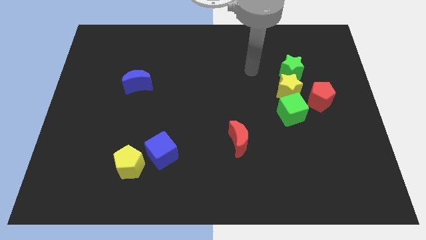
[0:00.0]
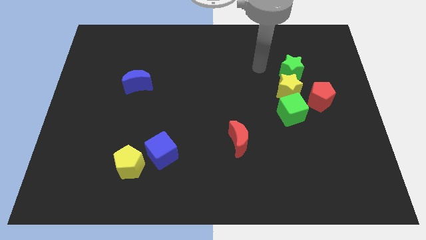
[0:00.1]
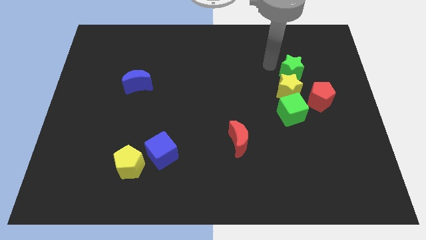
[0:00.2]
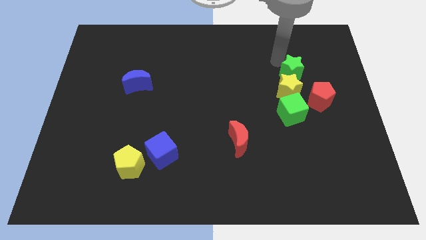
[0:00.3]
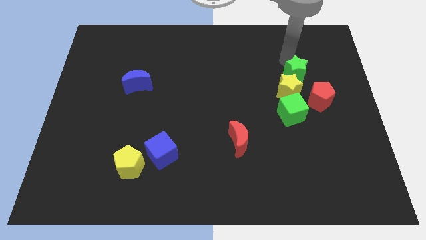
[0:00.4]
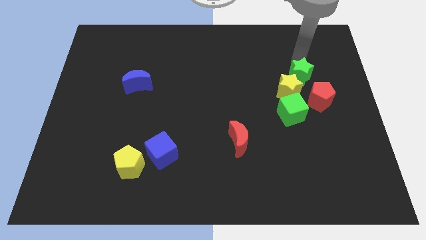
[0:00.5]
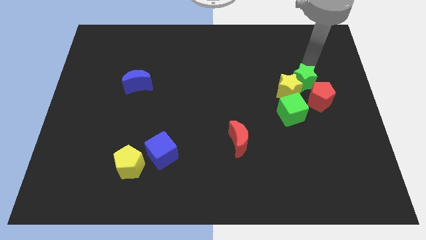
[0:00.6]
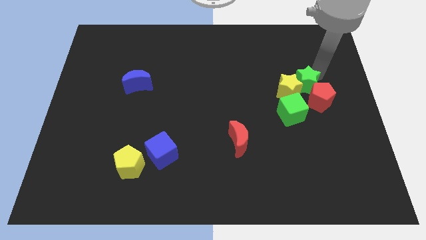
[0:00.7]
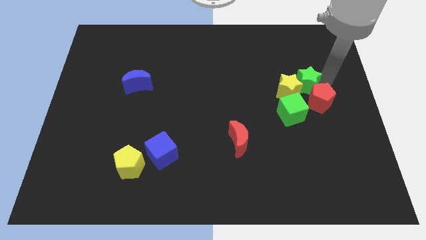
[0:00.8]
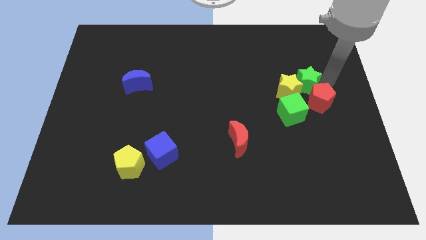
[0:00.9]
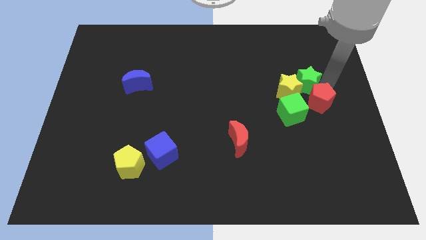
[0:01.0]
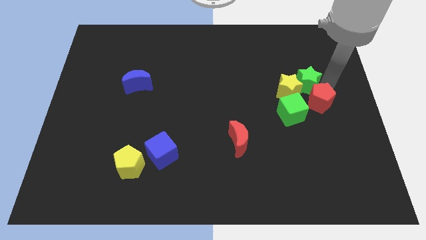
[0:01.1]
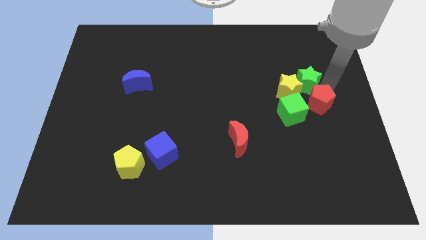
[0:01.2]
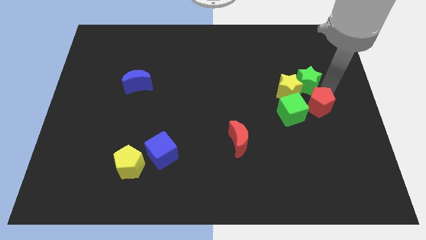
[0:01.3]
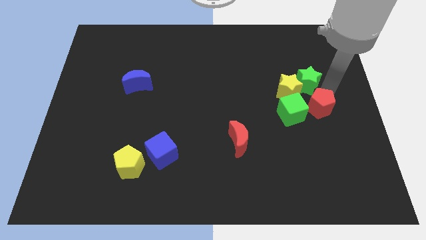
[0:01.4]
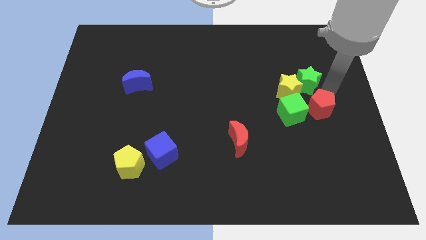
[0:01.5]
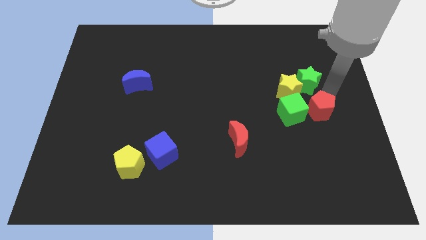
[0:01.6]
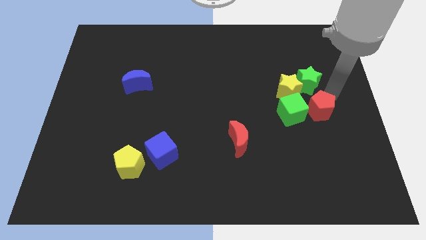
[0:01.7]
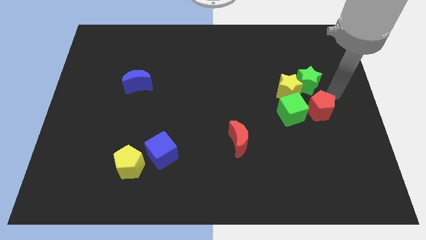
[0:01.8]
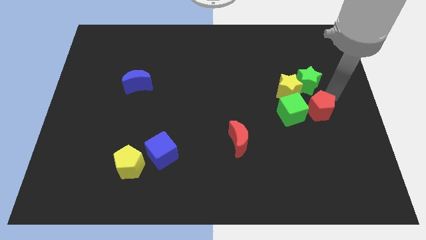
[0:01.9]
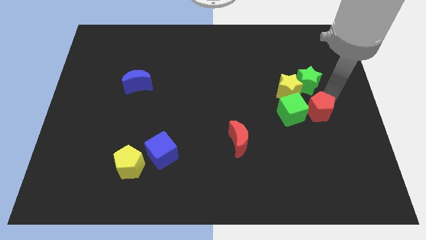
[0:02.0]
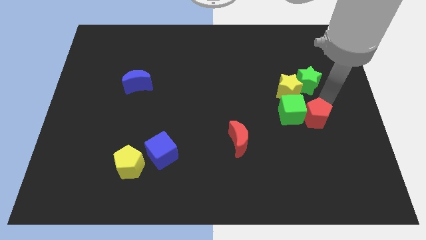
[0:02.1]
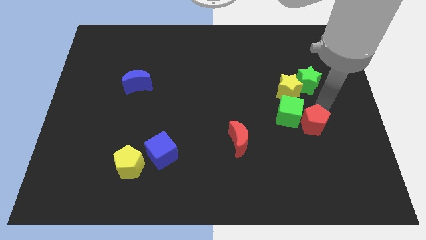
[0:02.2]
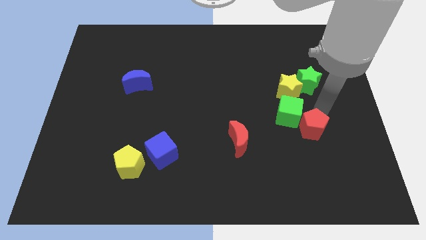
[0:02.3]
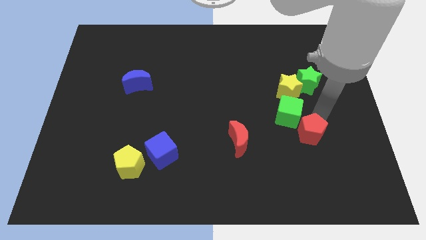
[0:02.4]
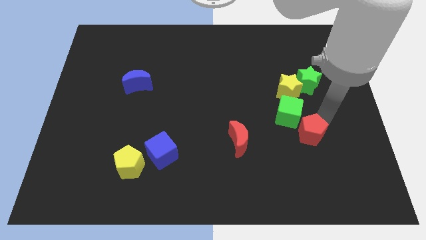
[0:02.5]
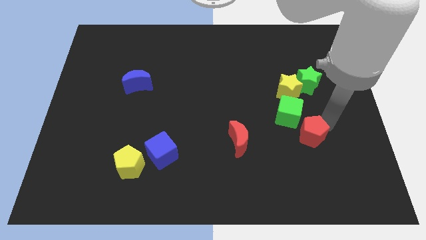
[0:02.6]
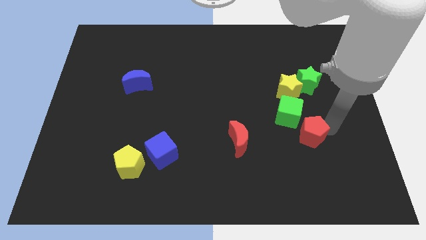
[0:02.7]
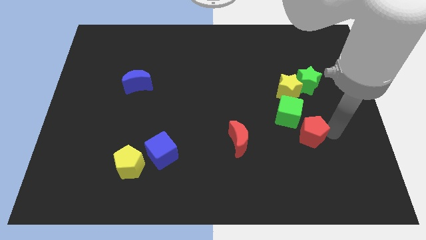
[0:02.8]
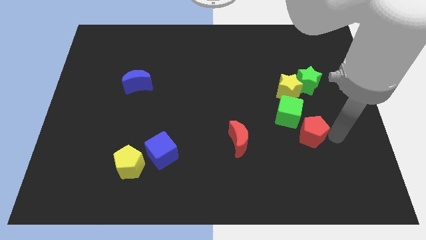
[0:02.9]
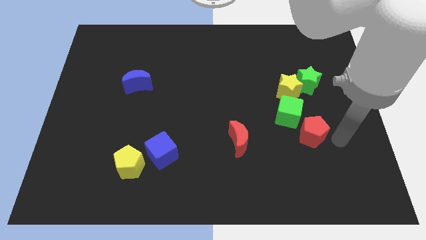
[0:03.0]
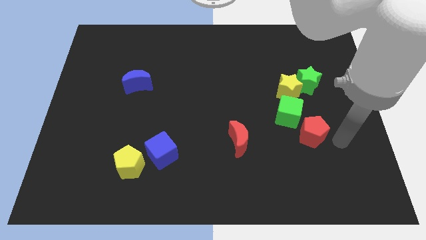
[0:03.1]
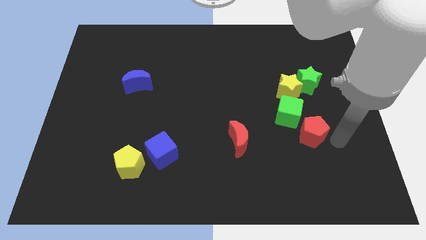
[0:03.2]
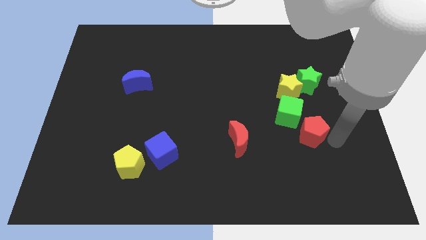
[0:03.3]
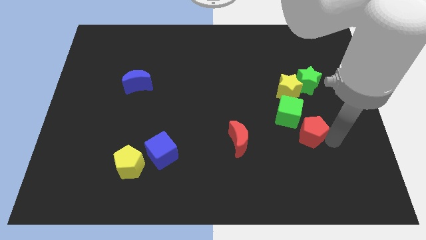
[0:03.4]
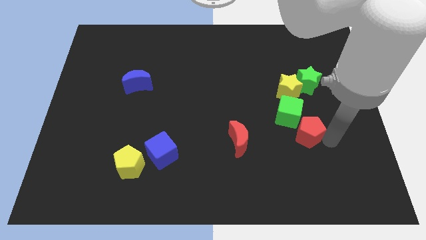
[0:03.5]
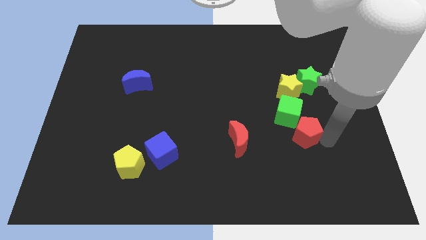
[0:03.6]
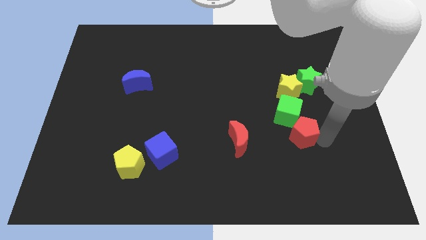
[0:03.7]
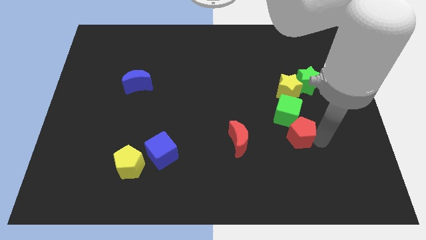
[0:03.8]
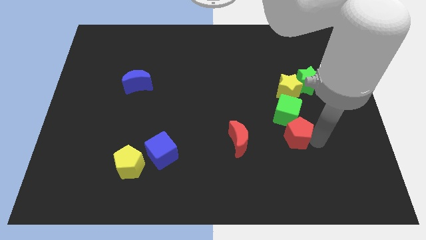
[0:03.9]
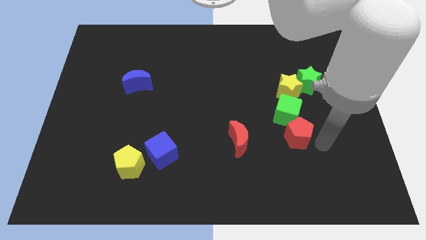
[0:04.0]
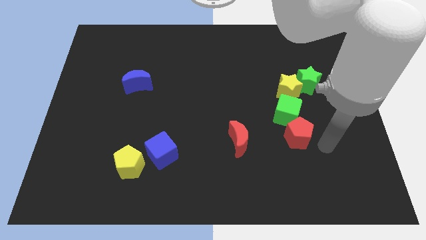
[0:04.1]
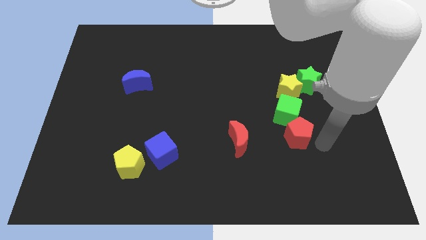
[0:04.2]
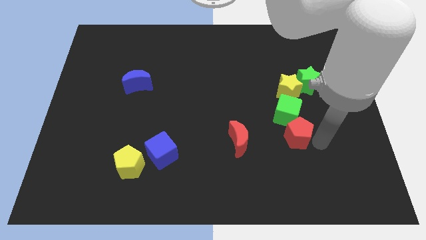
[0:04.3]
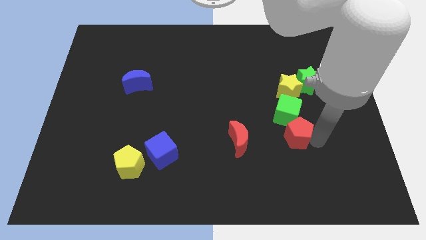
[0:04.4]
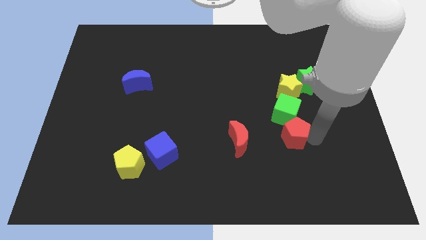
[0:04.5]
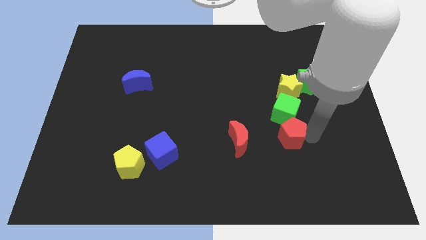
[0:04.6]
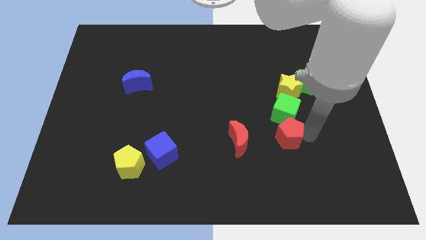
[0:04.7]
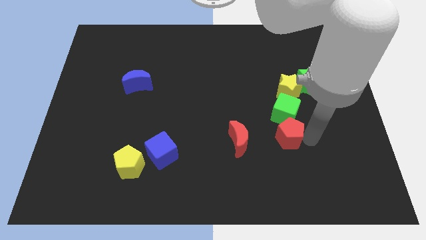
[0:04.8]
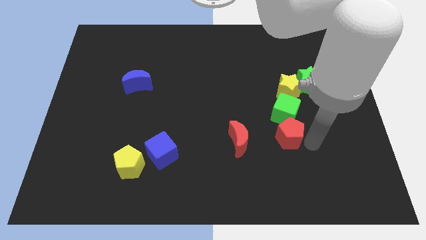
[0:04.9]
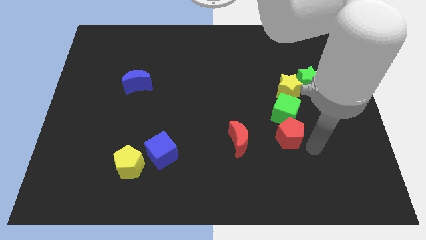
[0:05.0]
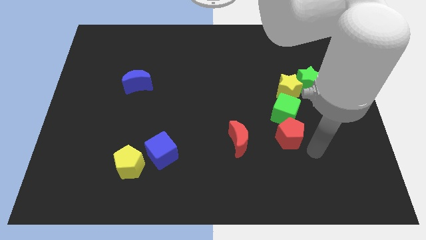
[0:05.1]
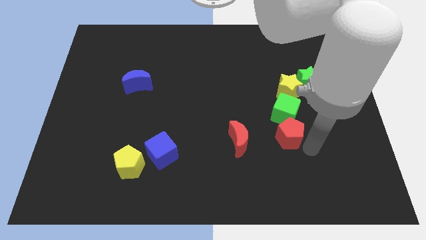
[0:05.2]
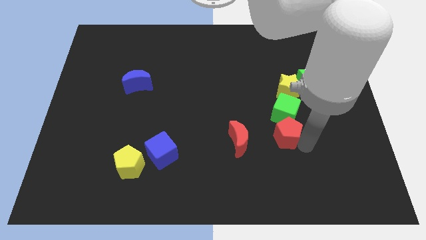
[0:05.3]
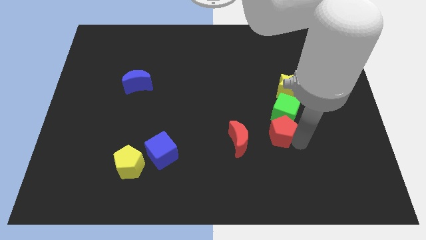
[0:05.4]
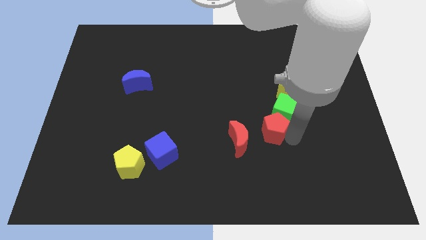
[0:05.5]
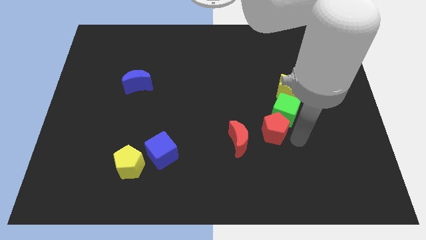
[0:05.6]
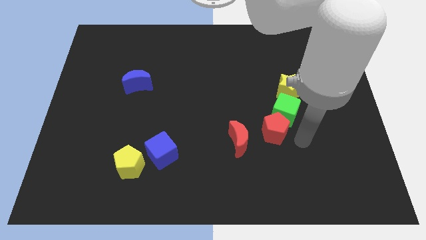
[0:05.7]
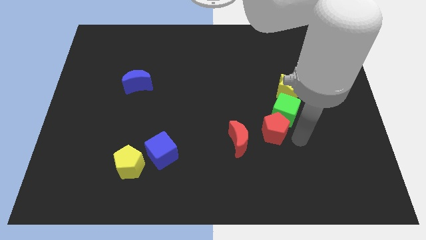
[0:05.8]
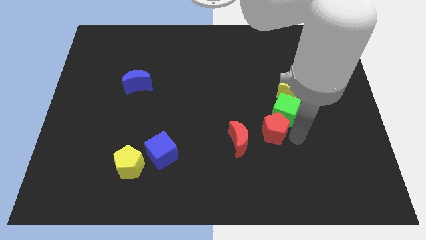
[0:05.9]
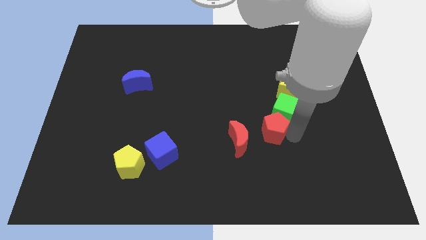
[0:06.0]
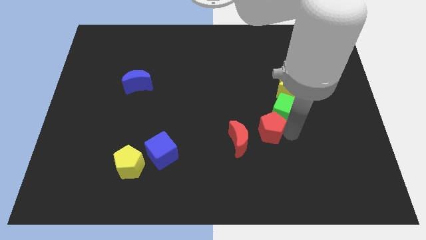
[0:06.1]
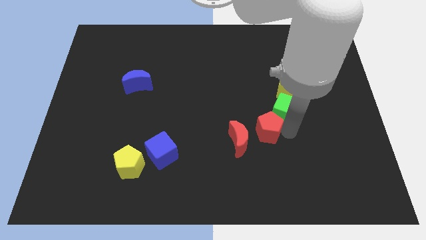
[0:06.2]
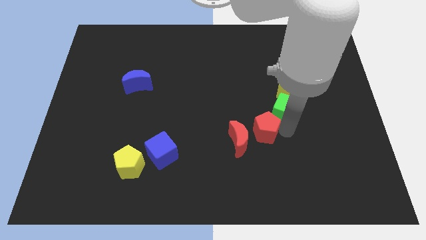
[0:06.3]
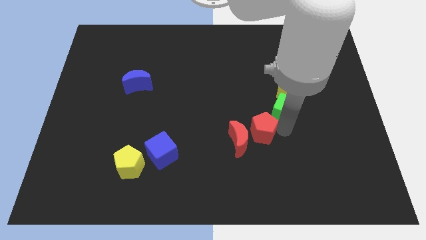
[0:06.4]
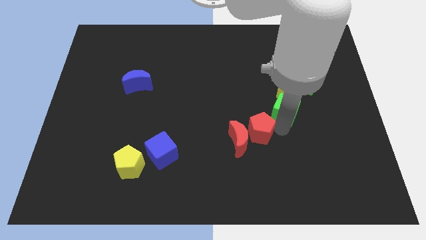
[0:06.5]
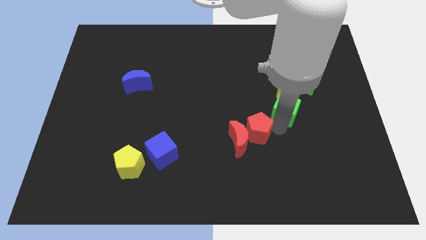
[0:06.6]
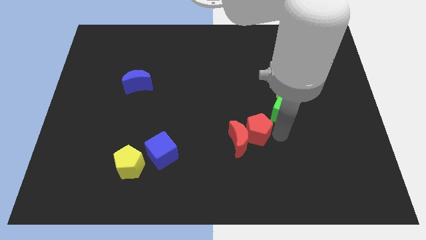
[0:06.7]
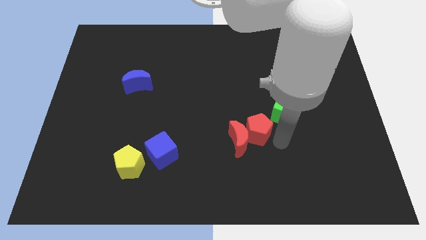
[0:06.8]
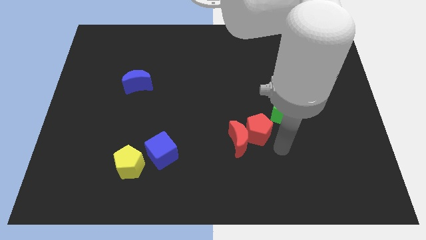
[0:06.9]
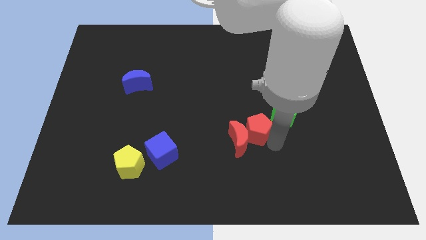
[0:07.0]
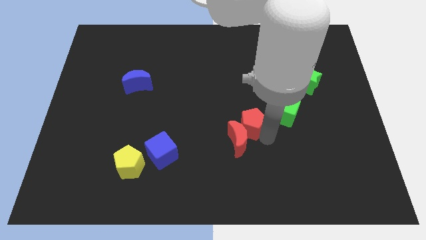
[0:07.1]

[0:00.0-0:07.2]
slide the red pentagon to the center of the board
